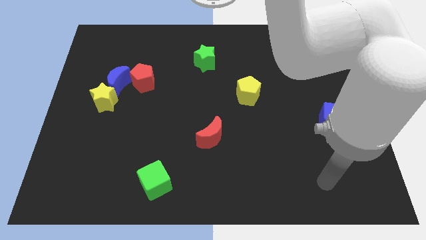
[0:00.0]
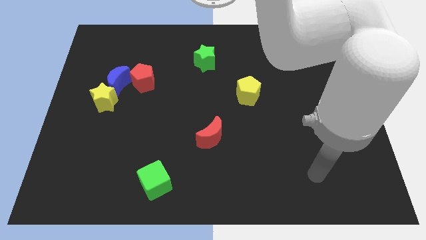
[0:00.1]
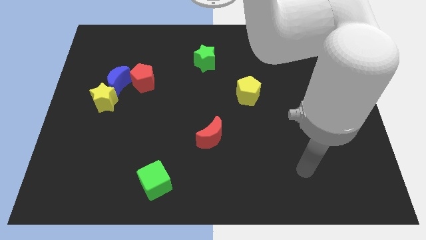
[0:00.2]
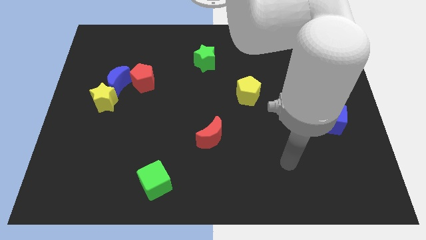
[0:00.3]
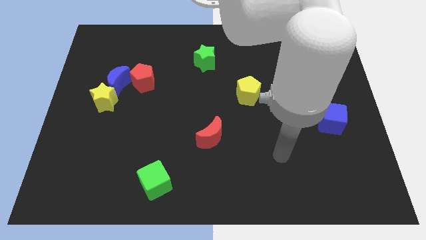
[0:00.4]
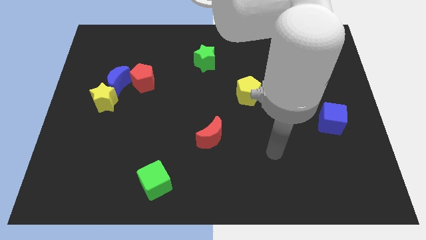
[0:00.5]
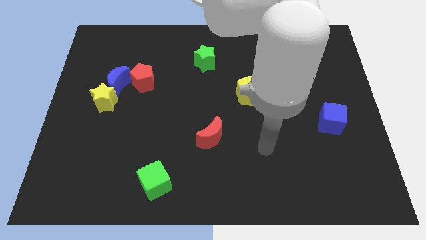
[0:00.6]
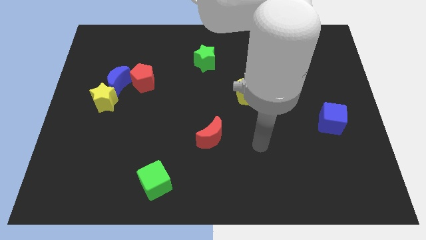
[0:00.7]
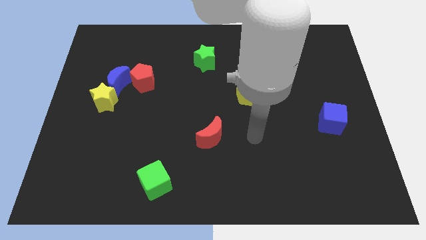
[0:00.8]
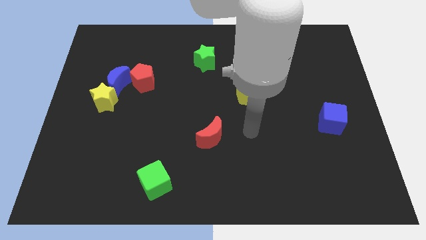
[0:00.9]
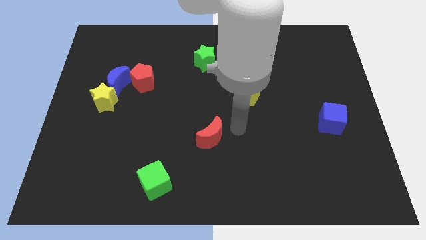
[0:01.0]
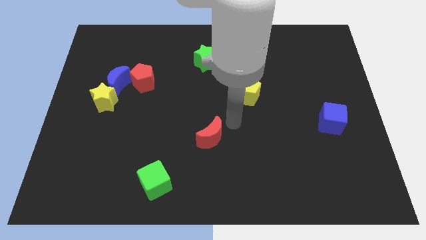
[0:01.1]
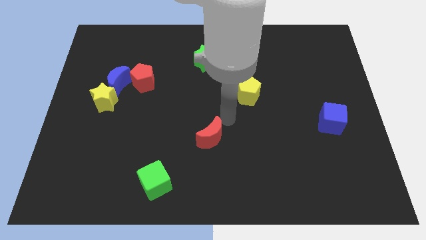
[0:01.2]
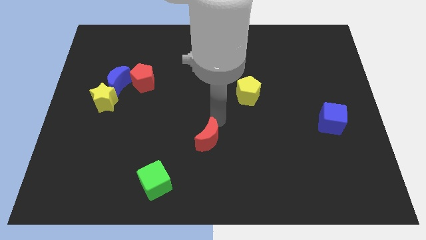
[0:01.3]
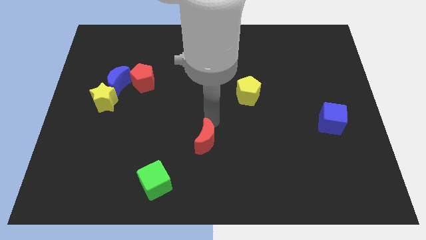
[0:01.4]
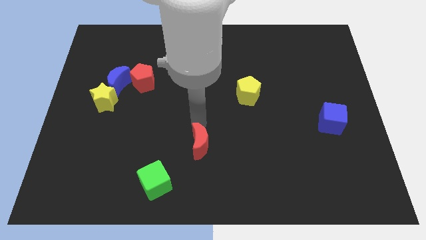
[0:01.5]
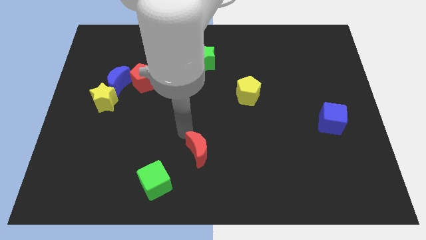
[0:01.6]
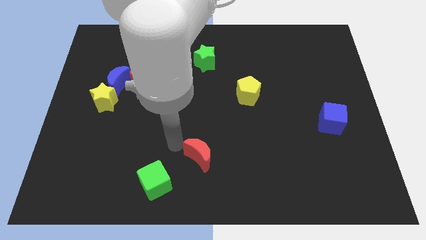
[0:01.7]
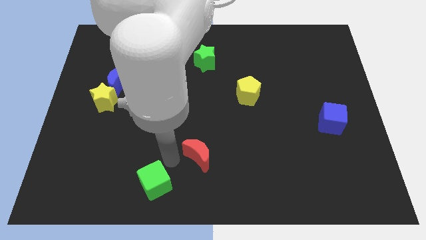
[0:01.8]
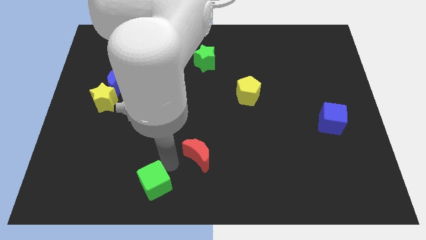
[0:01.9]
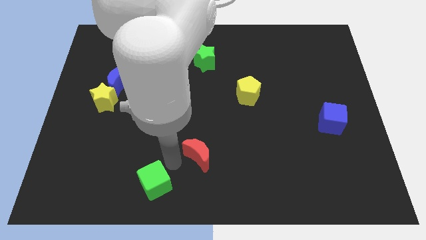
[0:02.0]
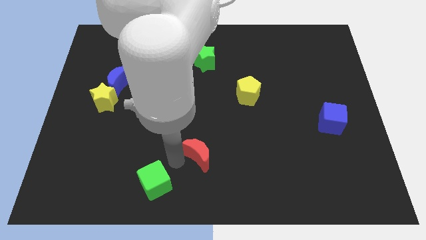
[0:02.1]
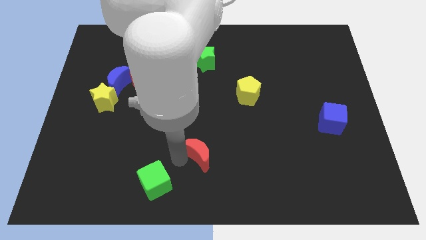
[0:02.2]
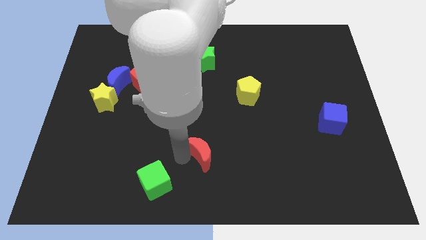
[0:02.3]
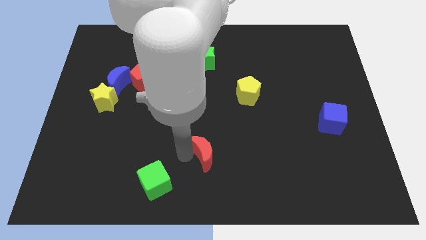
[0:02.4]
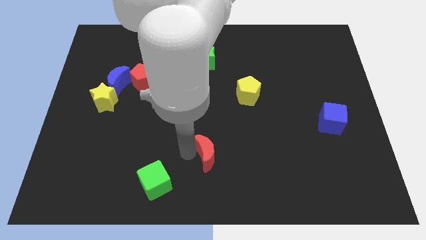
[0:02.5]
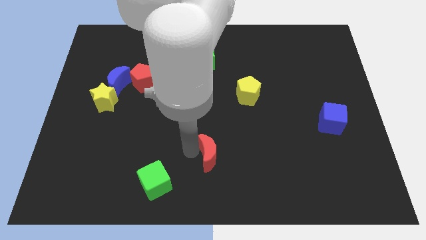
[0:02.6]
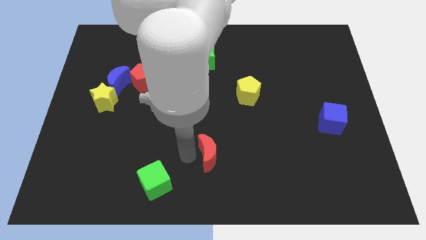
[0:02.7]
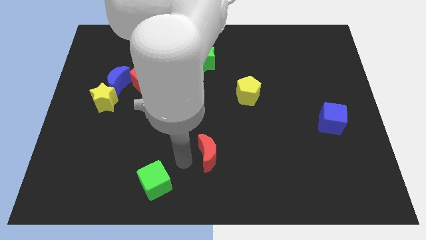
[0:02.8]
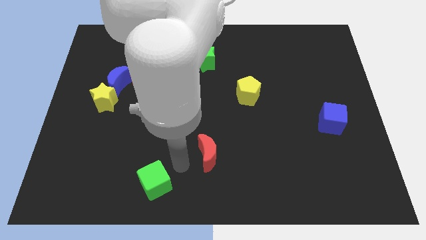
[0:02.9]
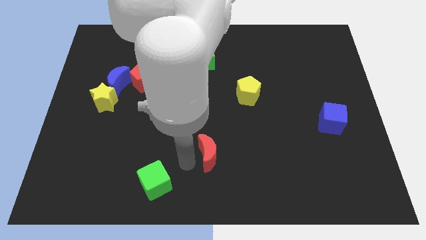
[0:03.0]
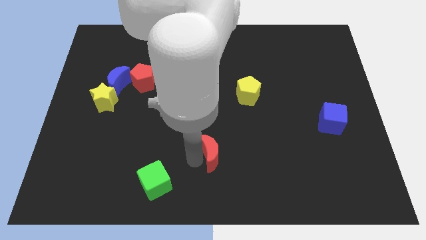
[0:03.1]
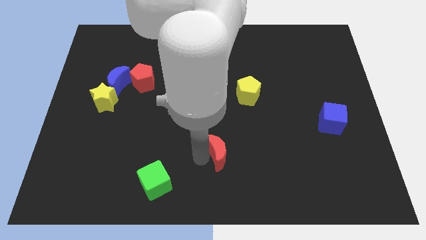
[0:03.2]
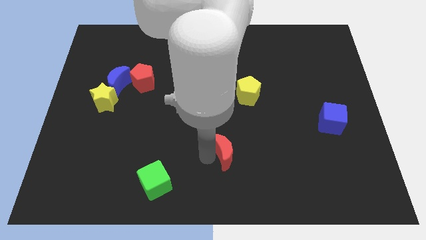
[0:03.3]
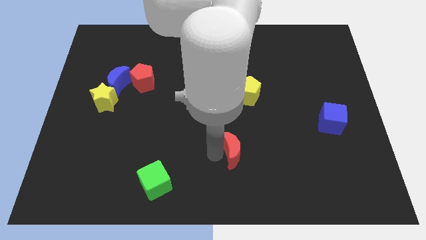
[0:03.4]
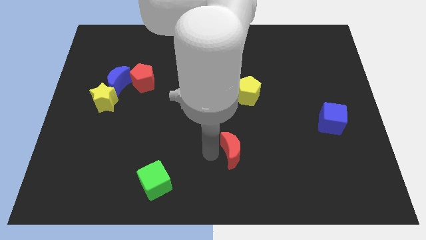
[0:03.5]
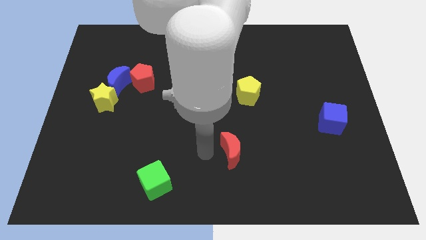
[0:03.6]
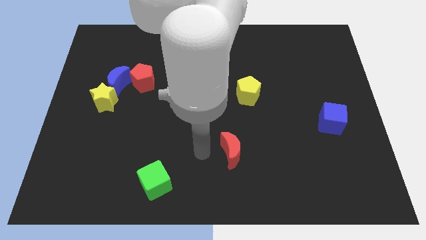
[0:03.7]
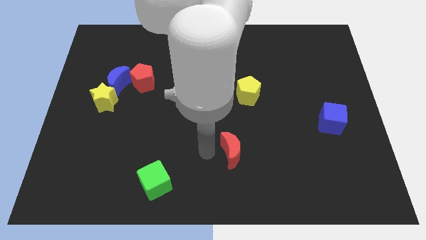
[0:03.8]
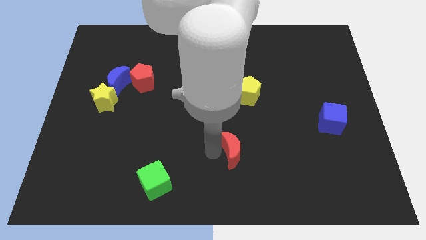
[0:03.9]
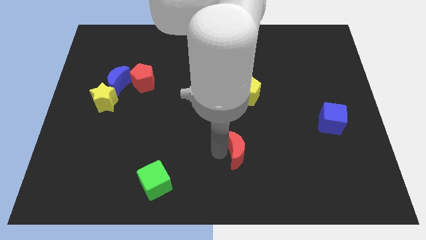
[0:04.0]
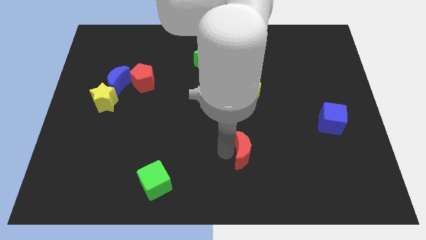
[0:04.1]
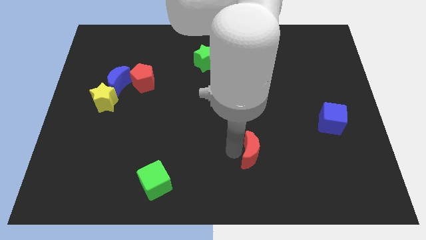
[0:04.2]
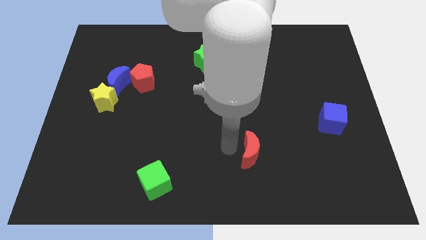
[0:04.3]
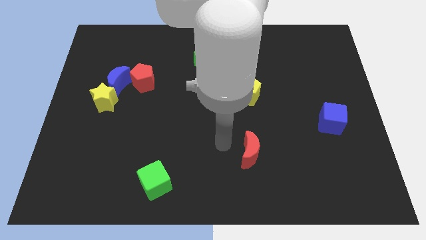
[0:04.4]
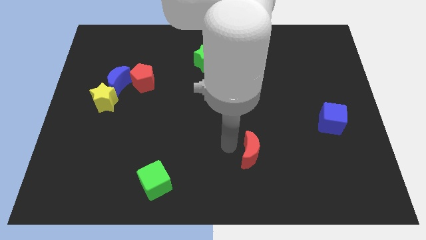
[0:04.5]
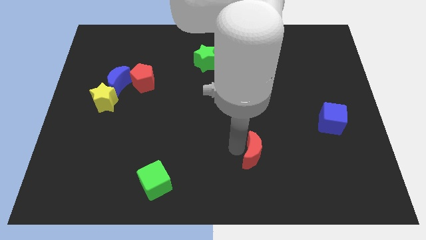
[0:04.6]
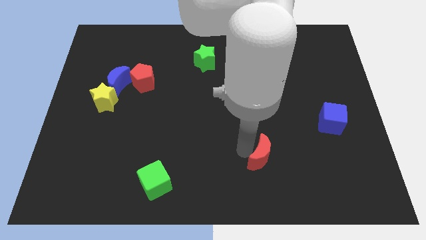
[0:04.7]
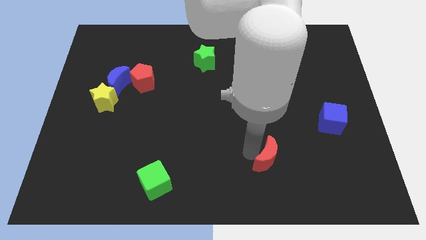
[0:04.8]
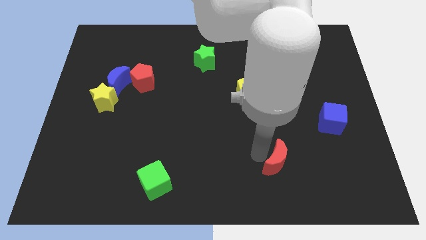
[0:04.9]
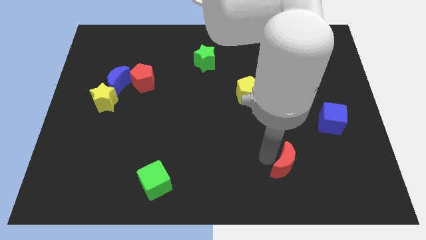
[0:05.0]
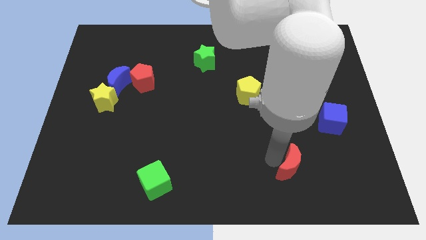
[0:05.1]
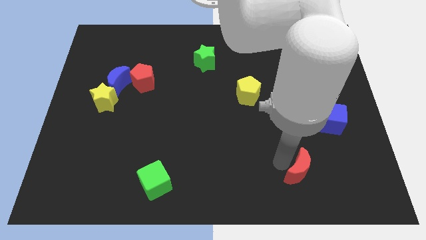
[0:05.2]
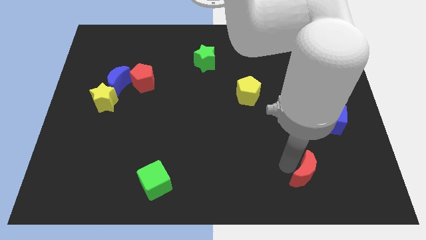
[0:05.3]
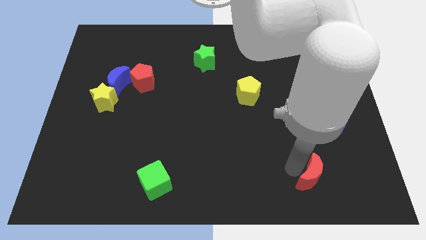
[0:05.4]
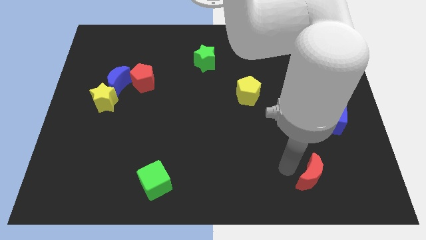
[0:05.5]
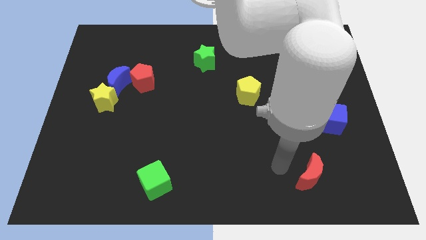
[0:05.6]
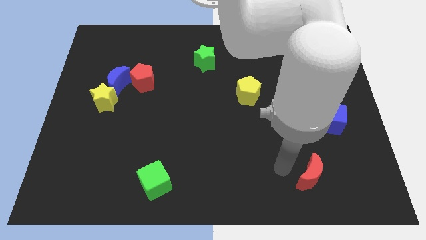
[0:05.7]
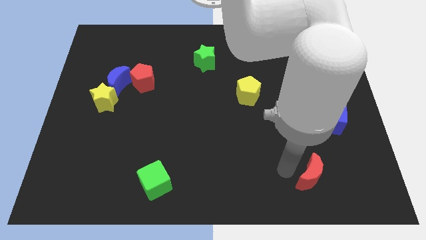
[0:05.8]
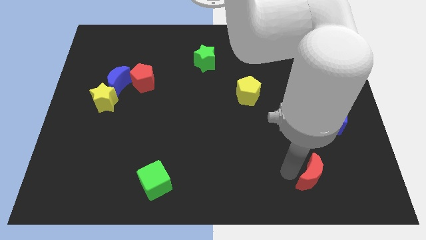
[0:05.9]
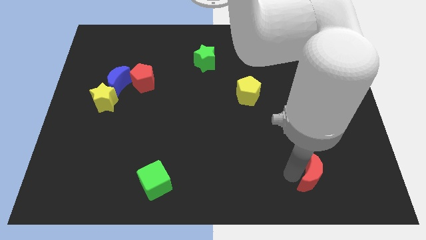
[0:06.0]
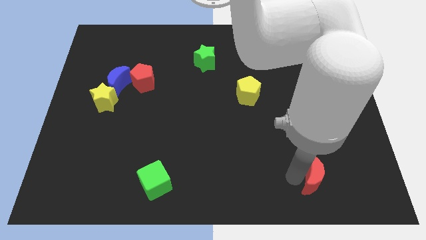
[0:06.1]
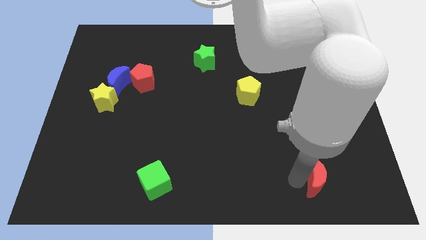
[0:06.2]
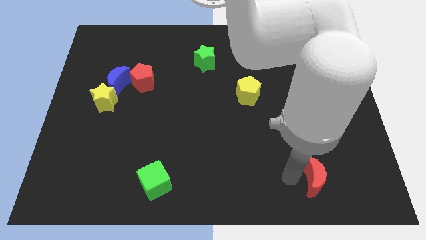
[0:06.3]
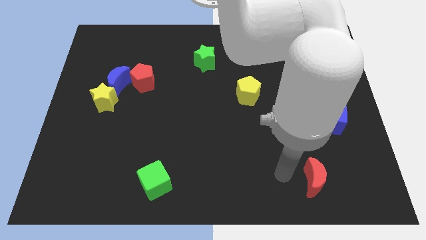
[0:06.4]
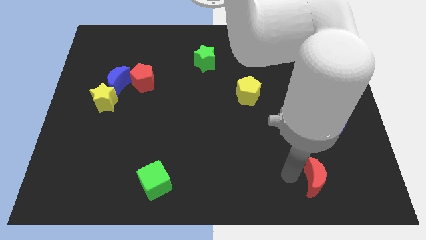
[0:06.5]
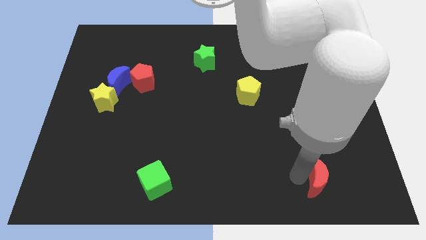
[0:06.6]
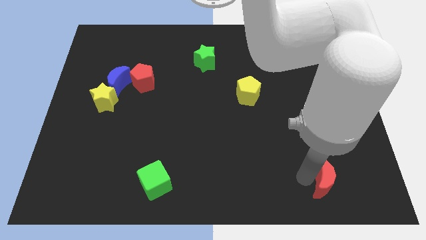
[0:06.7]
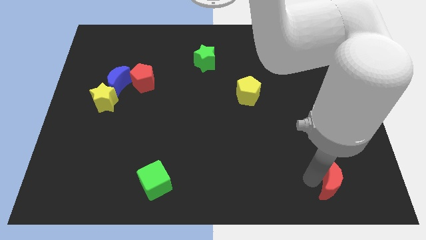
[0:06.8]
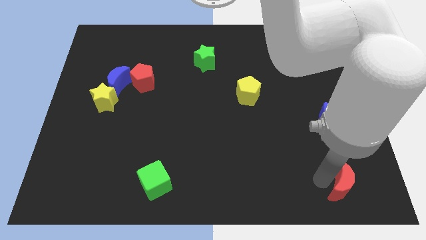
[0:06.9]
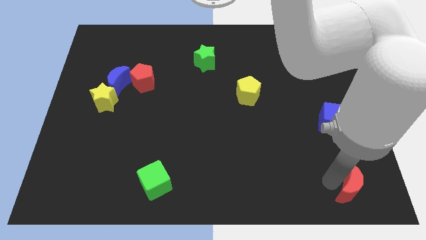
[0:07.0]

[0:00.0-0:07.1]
push the red moon to the bottom right corner

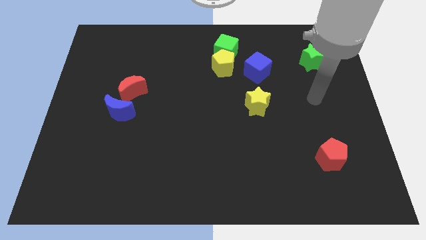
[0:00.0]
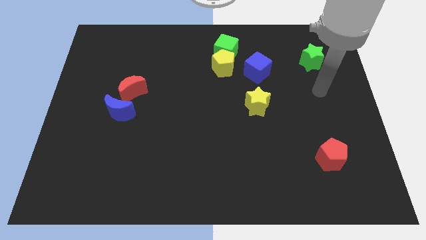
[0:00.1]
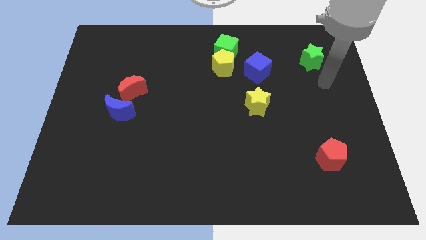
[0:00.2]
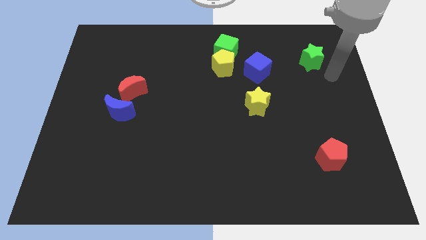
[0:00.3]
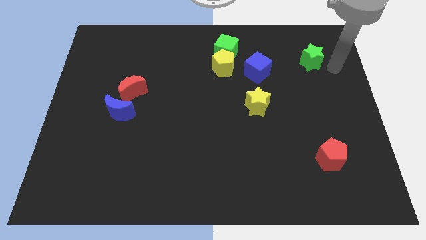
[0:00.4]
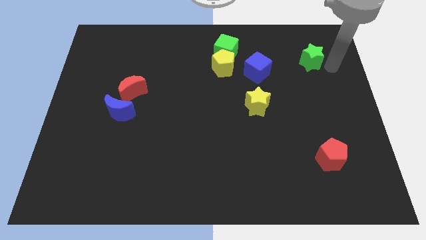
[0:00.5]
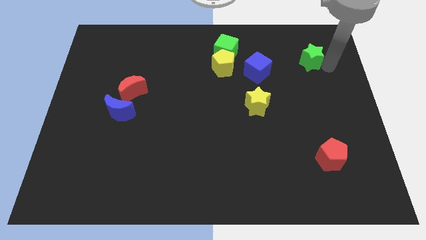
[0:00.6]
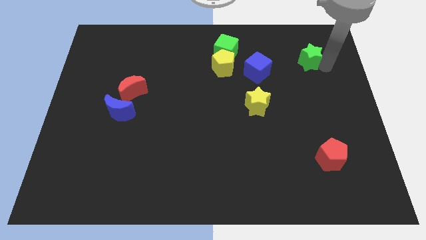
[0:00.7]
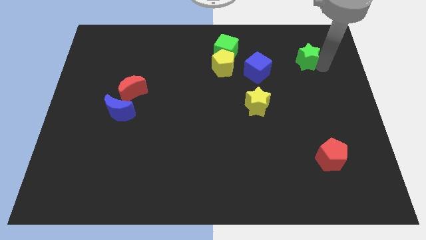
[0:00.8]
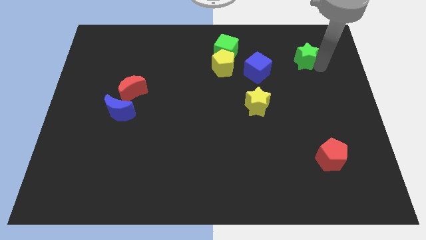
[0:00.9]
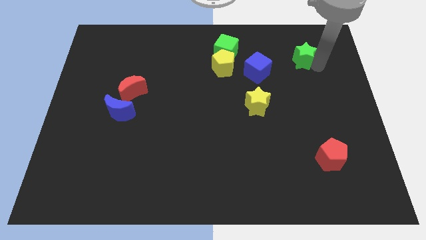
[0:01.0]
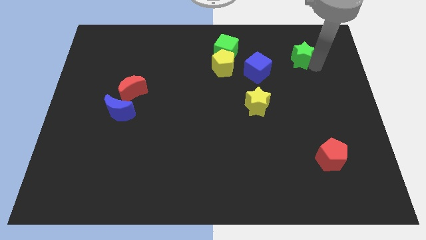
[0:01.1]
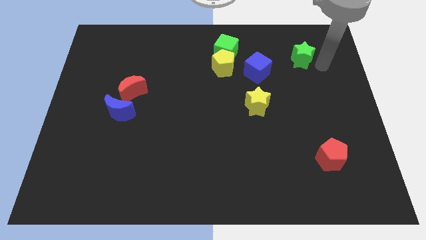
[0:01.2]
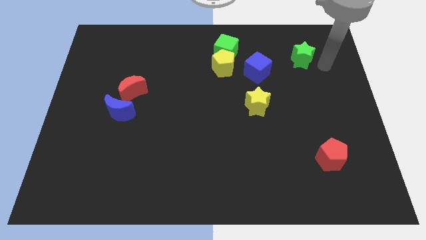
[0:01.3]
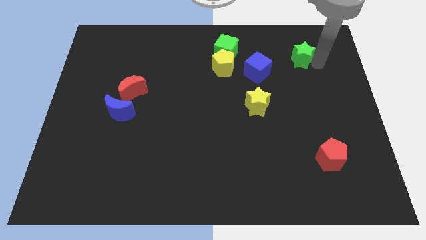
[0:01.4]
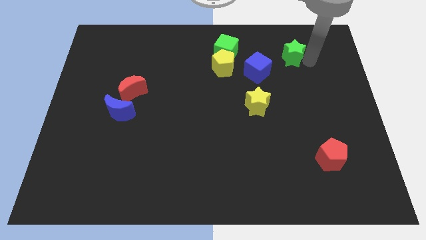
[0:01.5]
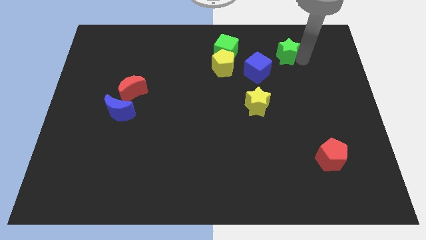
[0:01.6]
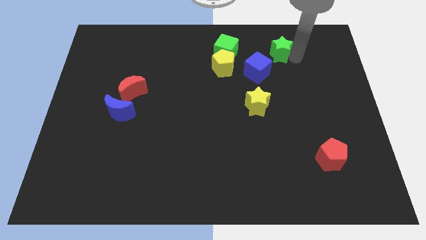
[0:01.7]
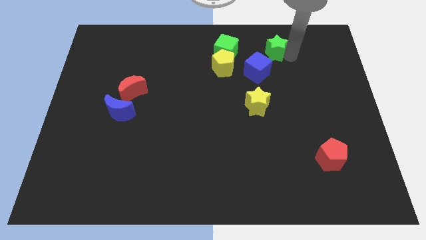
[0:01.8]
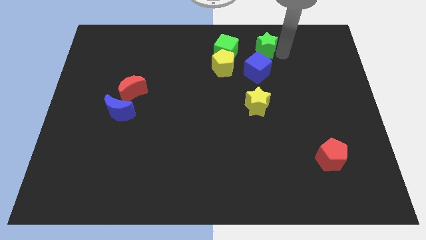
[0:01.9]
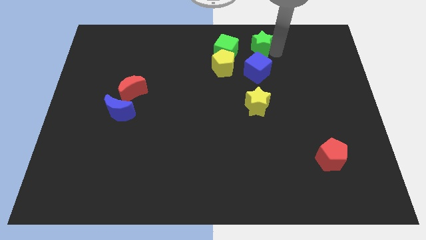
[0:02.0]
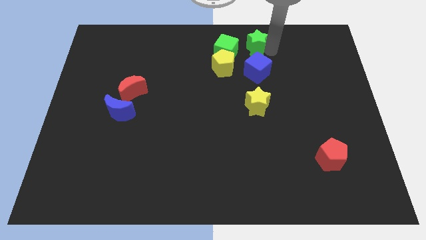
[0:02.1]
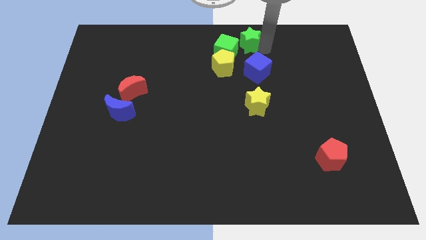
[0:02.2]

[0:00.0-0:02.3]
move the green star to the top side
